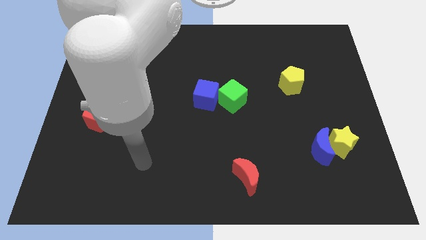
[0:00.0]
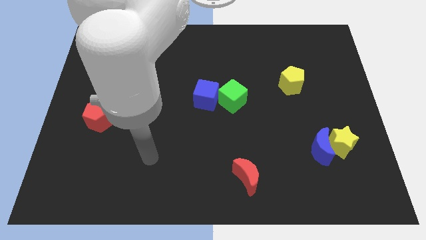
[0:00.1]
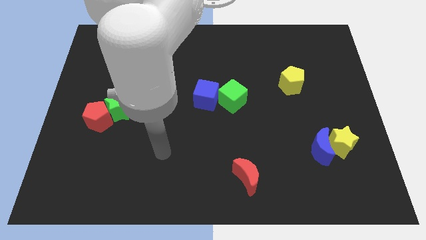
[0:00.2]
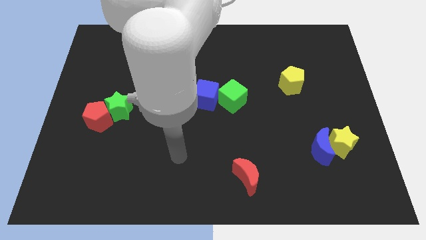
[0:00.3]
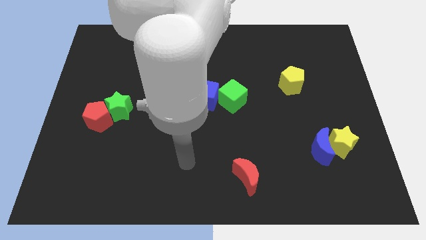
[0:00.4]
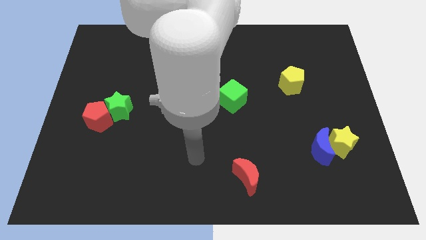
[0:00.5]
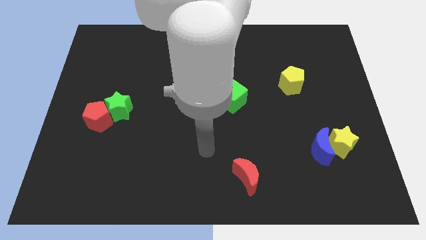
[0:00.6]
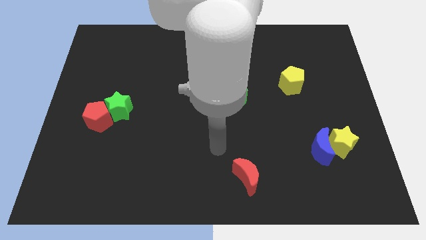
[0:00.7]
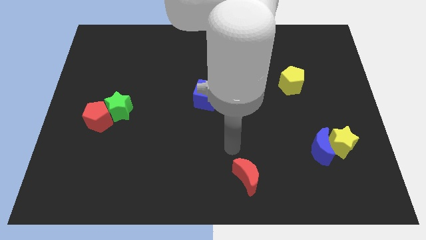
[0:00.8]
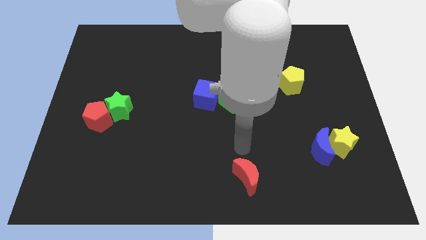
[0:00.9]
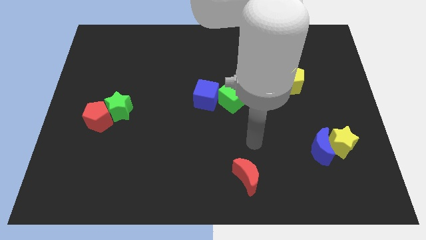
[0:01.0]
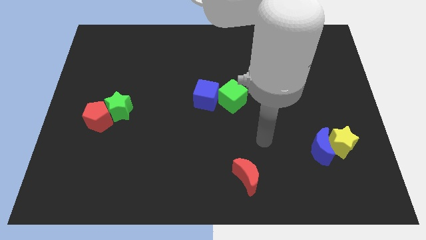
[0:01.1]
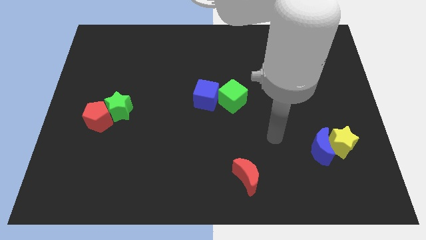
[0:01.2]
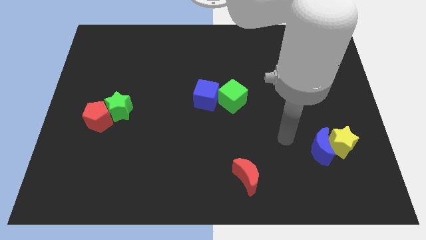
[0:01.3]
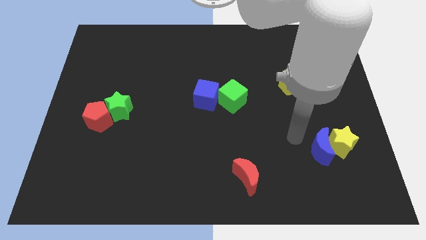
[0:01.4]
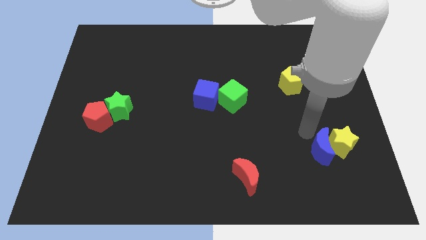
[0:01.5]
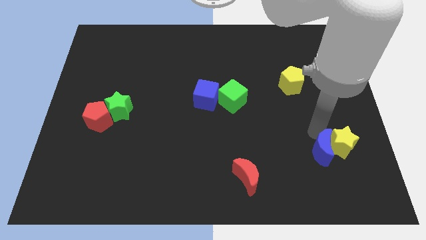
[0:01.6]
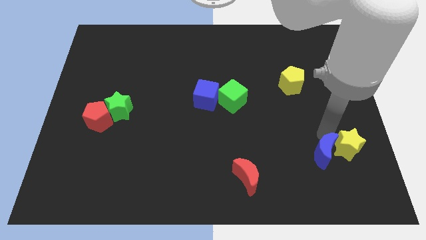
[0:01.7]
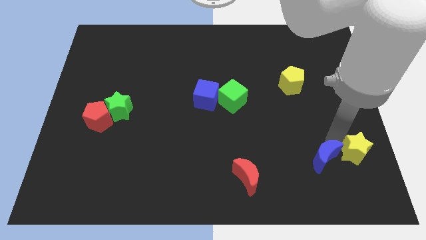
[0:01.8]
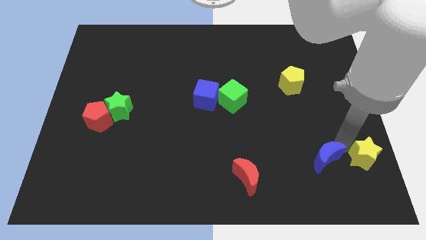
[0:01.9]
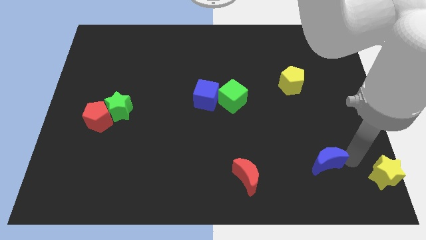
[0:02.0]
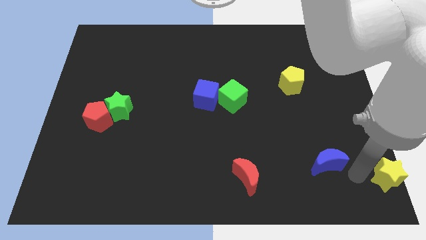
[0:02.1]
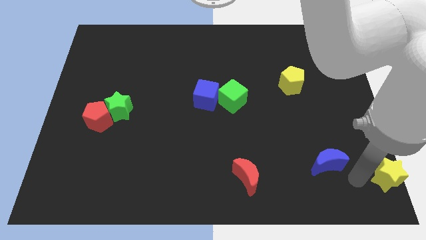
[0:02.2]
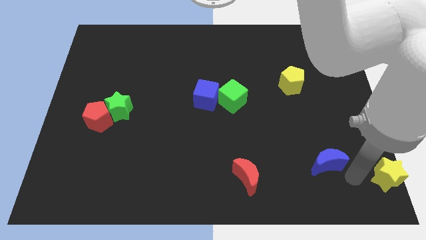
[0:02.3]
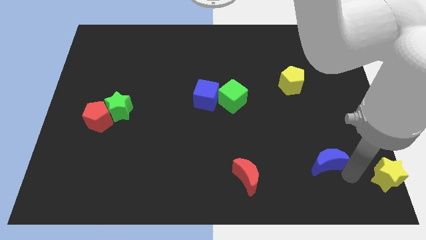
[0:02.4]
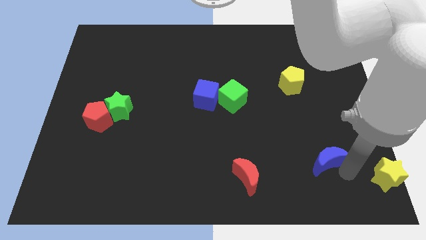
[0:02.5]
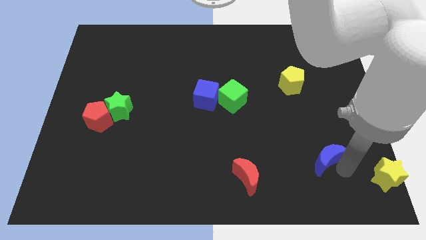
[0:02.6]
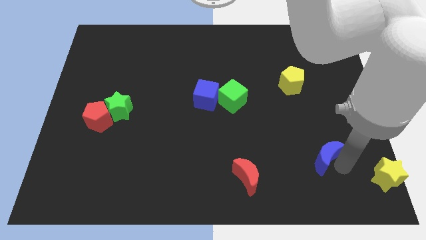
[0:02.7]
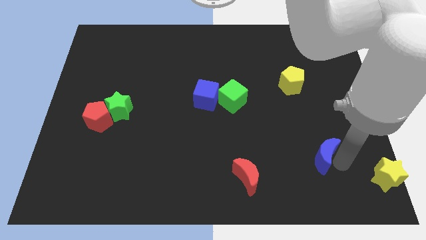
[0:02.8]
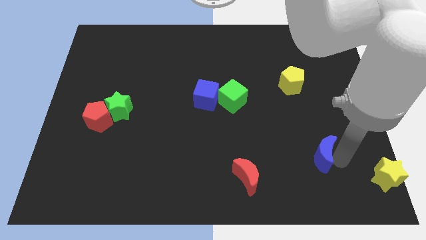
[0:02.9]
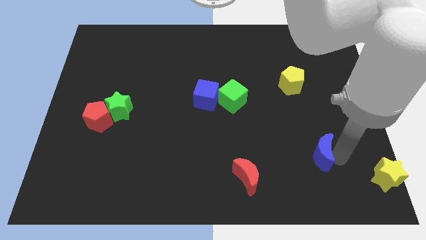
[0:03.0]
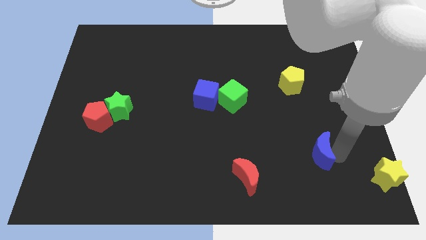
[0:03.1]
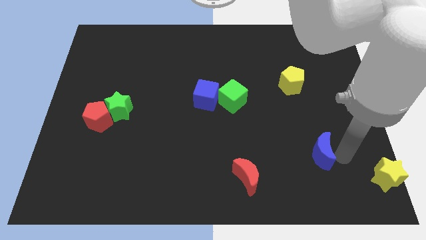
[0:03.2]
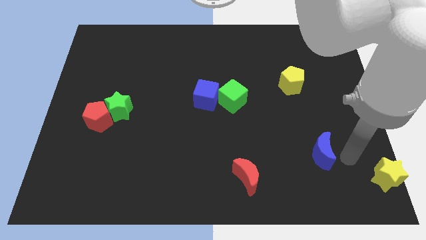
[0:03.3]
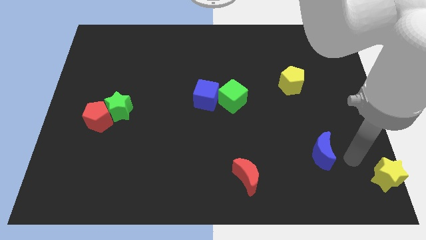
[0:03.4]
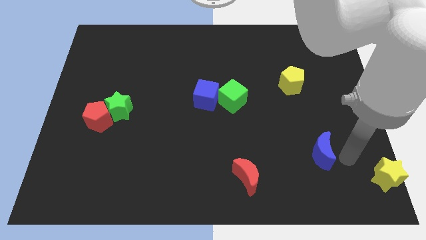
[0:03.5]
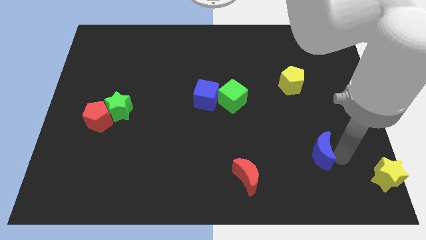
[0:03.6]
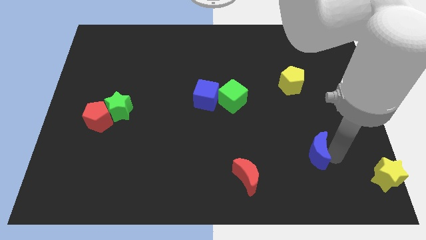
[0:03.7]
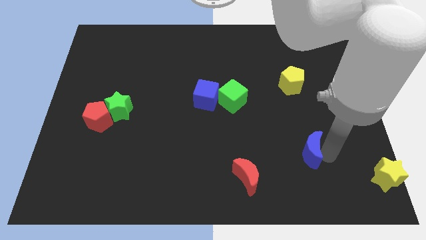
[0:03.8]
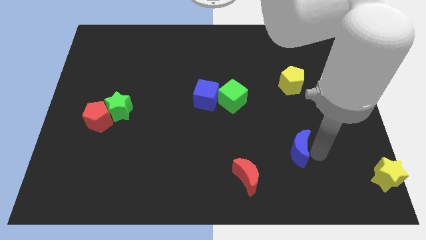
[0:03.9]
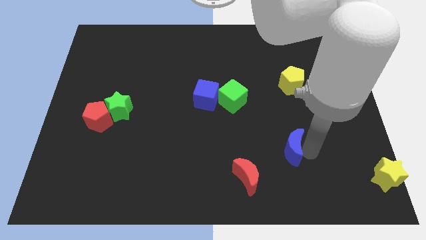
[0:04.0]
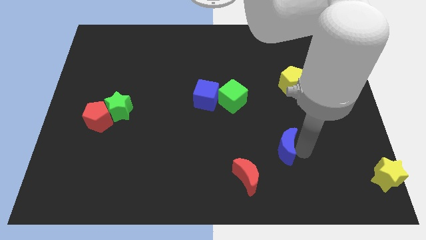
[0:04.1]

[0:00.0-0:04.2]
move the blue moon to the left a bit

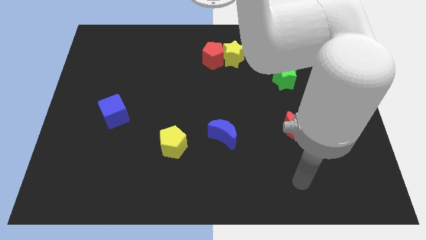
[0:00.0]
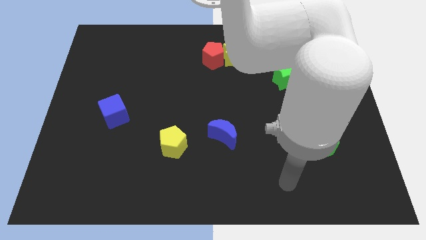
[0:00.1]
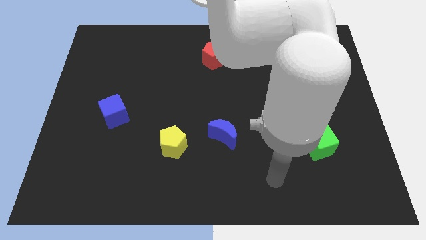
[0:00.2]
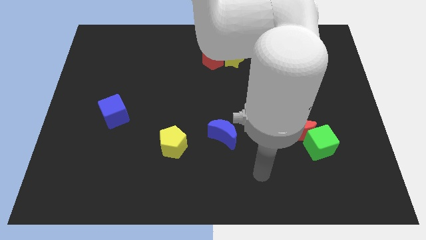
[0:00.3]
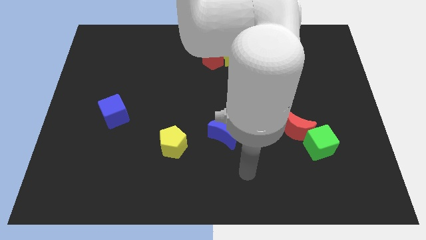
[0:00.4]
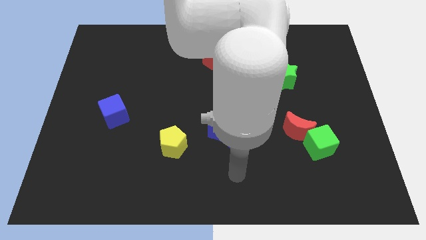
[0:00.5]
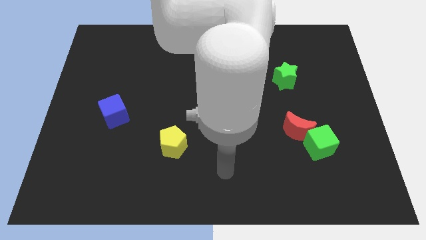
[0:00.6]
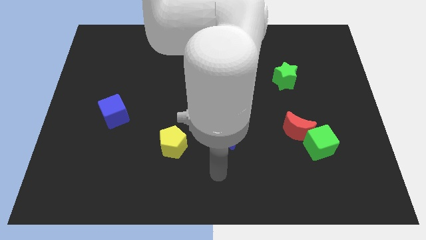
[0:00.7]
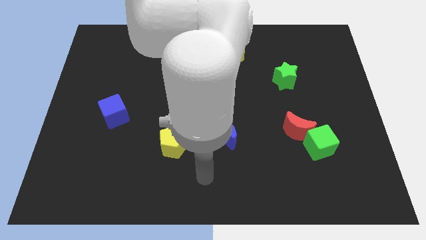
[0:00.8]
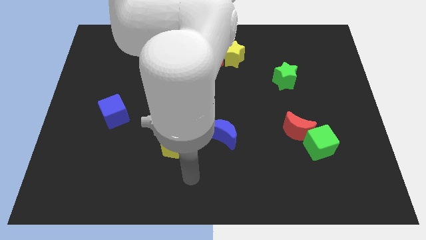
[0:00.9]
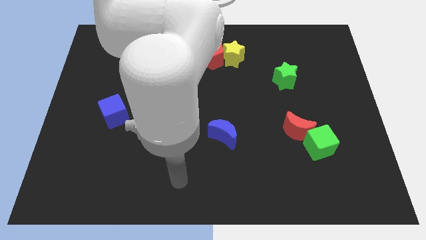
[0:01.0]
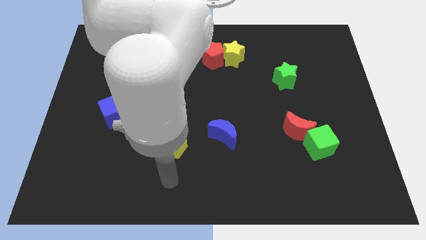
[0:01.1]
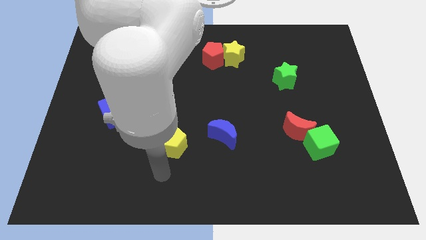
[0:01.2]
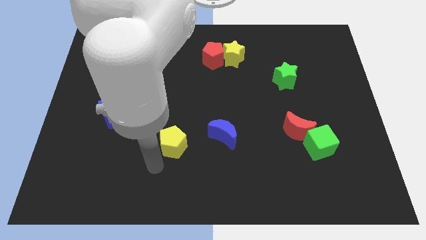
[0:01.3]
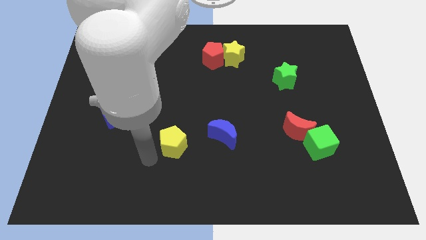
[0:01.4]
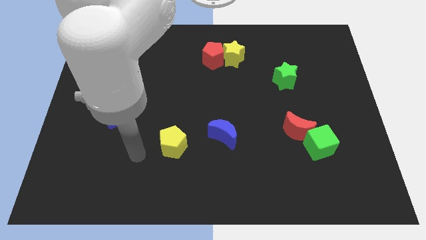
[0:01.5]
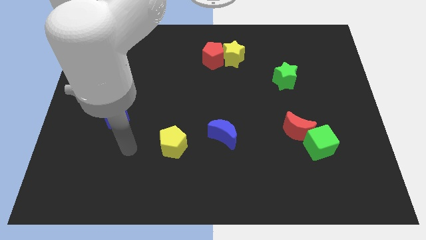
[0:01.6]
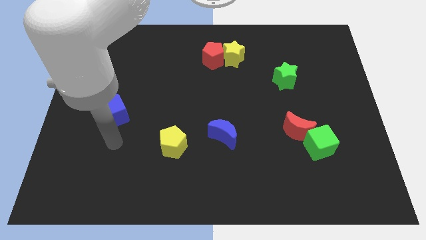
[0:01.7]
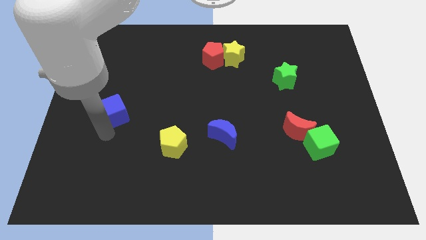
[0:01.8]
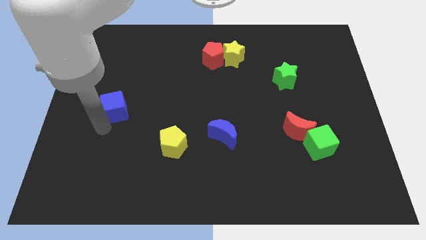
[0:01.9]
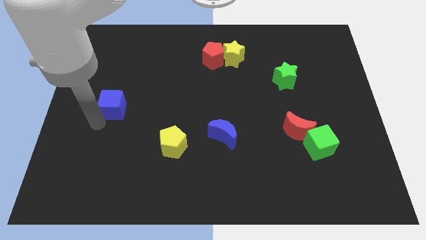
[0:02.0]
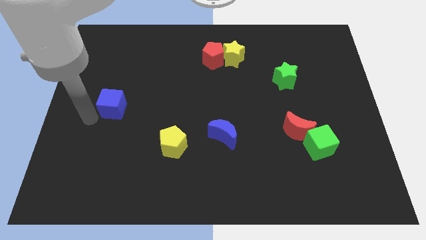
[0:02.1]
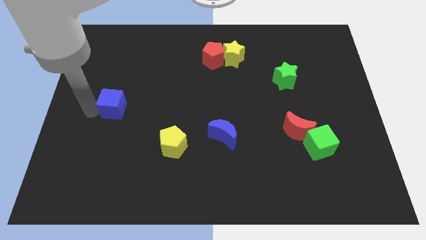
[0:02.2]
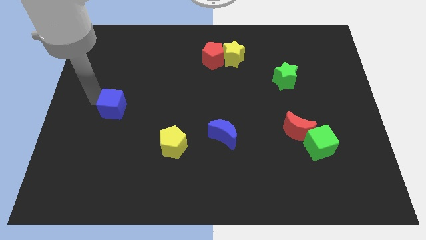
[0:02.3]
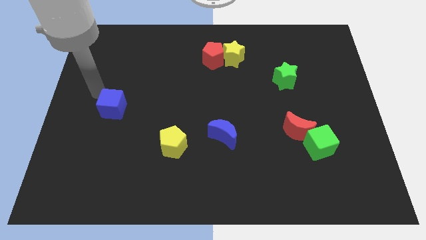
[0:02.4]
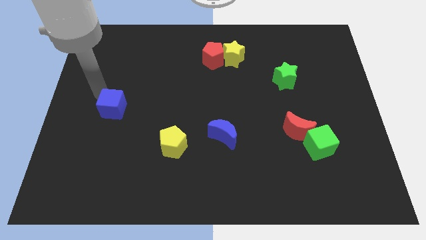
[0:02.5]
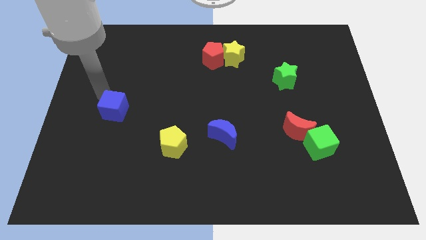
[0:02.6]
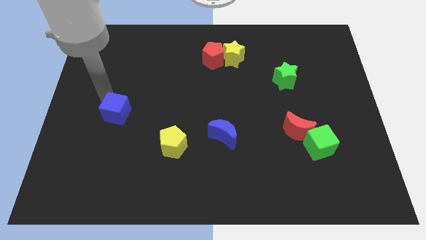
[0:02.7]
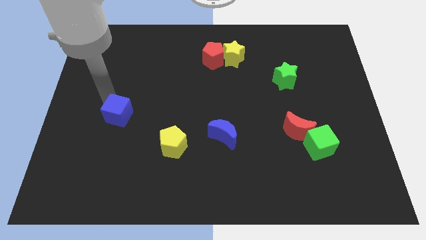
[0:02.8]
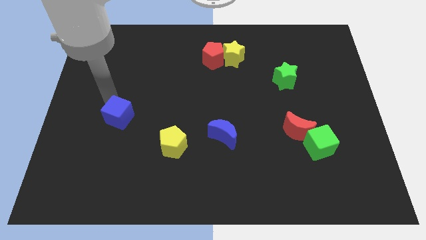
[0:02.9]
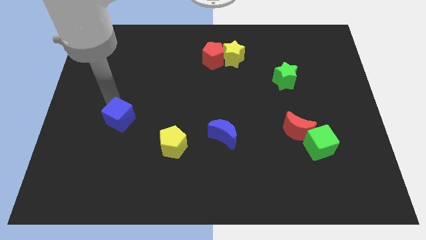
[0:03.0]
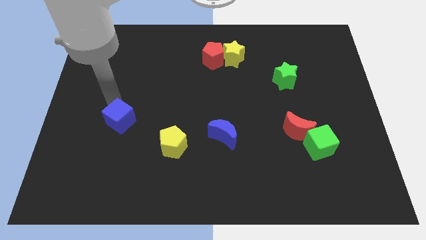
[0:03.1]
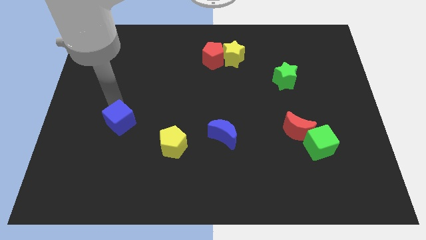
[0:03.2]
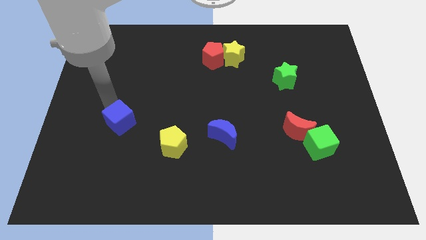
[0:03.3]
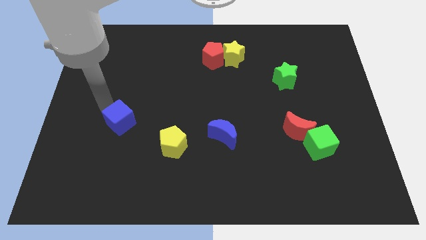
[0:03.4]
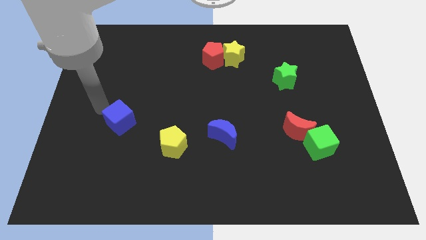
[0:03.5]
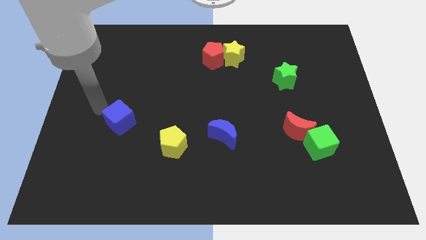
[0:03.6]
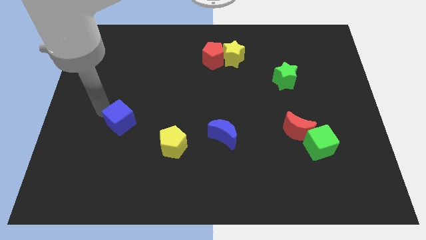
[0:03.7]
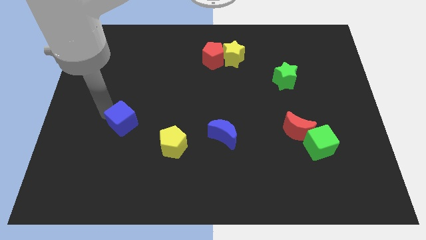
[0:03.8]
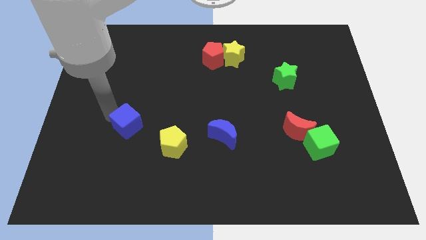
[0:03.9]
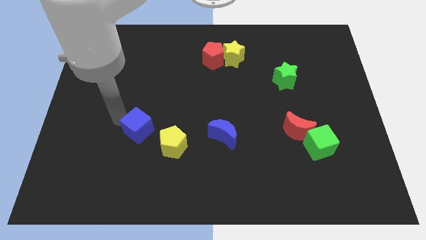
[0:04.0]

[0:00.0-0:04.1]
push the blue cube diagonally downwards and right a little
